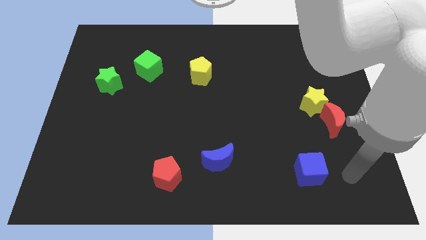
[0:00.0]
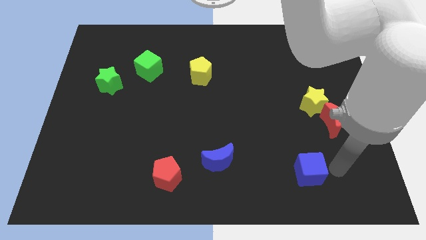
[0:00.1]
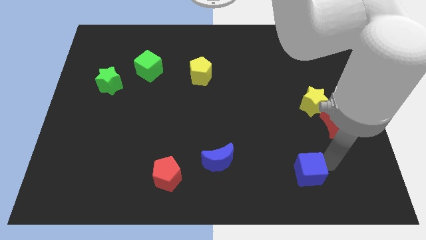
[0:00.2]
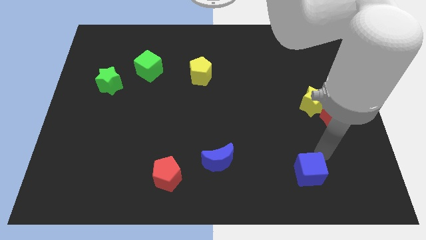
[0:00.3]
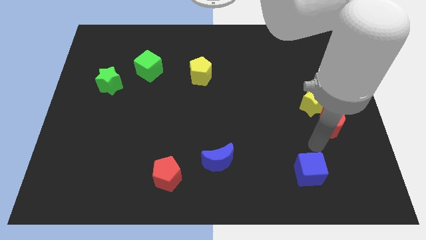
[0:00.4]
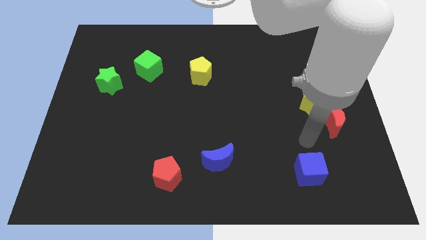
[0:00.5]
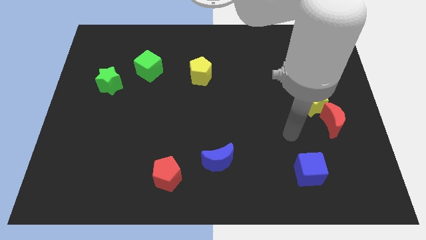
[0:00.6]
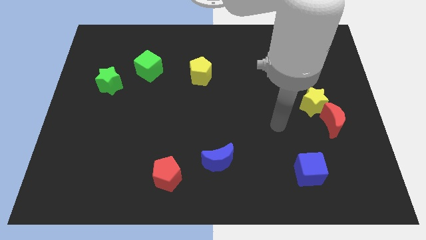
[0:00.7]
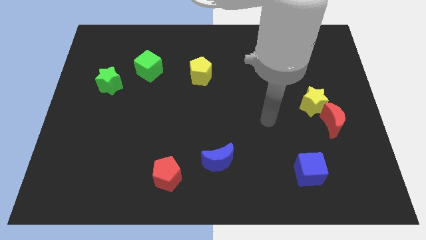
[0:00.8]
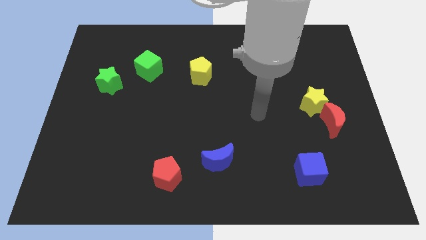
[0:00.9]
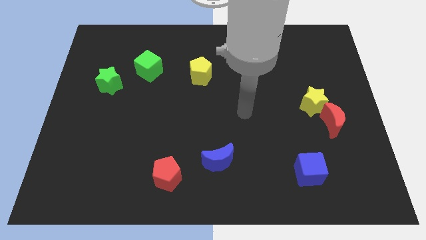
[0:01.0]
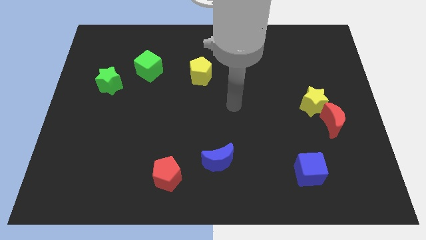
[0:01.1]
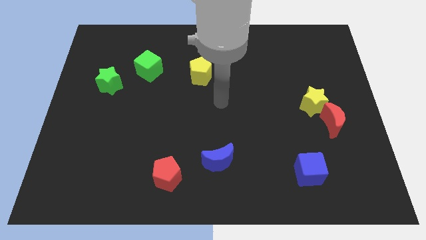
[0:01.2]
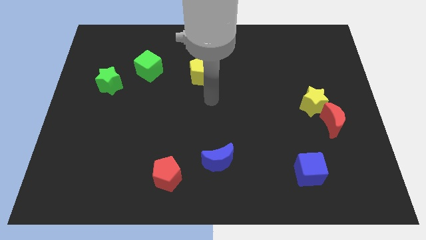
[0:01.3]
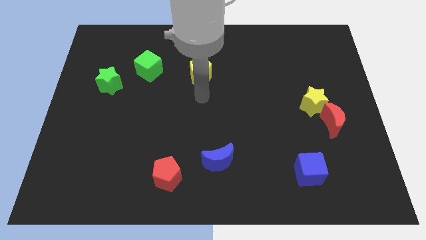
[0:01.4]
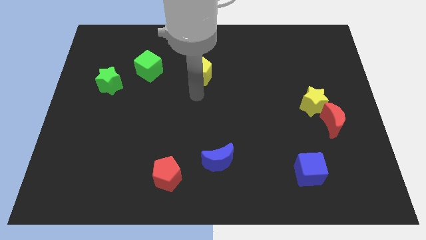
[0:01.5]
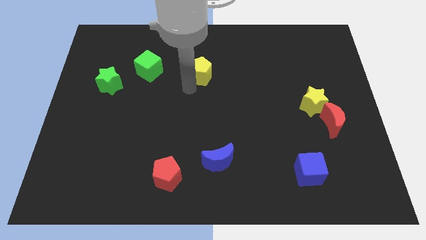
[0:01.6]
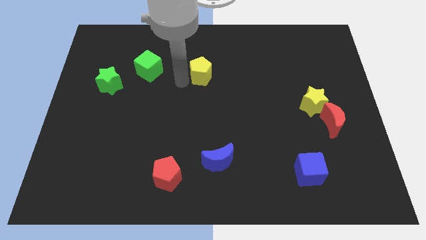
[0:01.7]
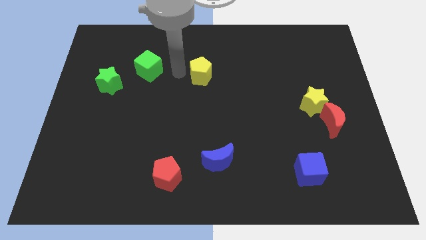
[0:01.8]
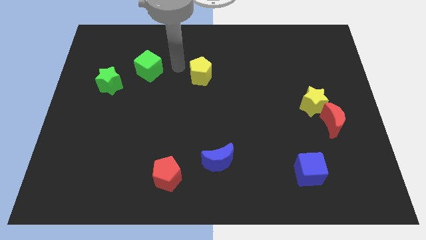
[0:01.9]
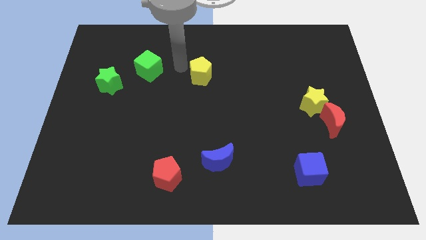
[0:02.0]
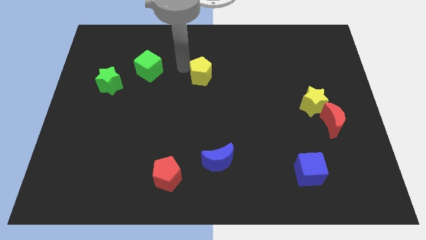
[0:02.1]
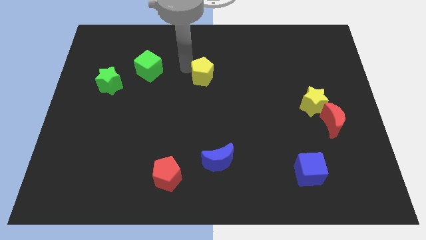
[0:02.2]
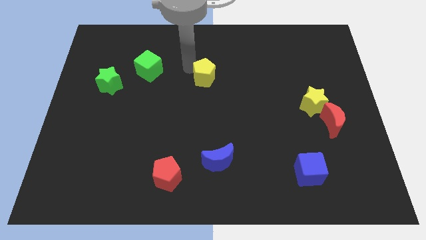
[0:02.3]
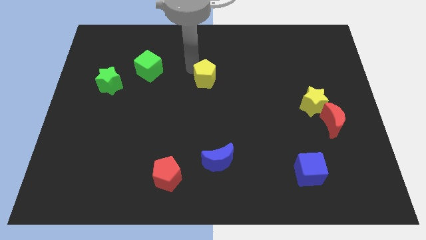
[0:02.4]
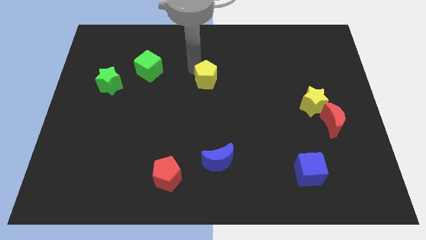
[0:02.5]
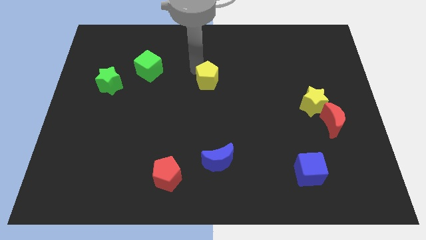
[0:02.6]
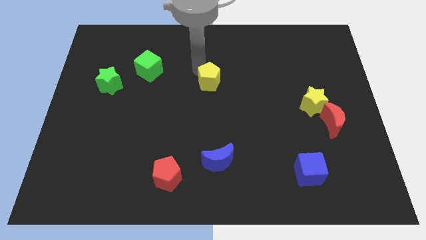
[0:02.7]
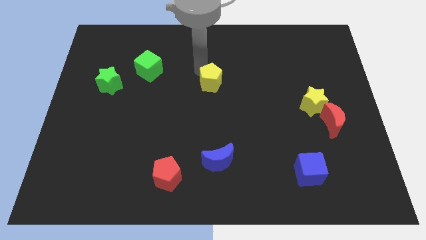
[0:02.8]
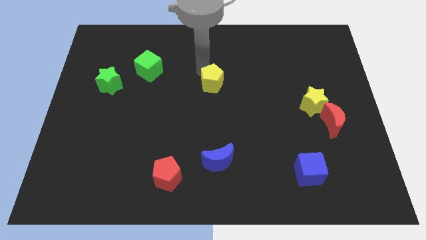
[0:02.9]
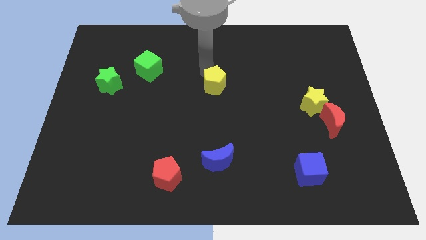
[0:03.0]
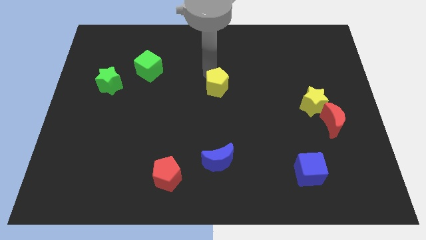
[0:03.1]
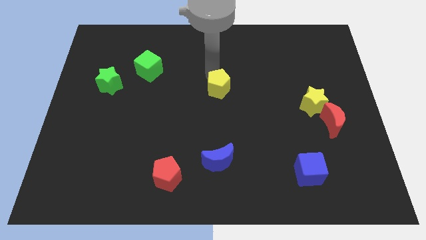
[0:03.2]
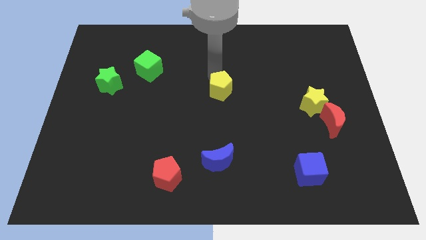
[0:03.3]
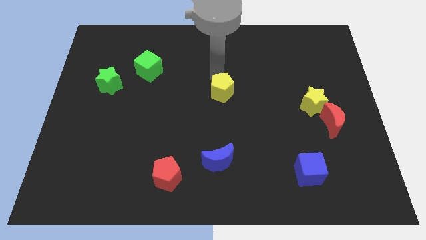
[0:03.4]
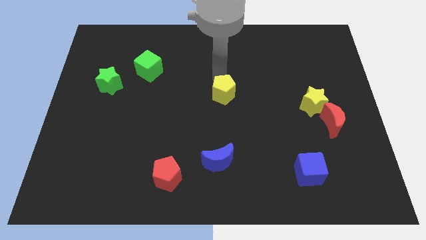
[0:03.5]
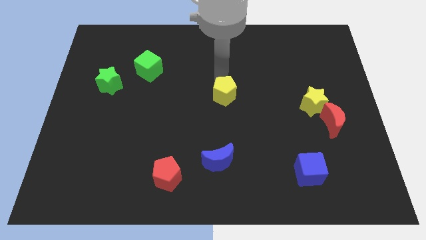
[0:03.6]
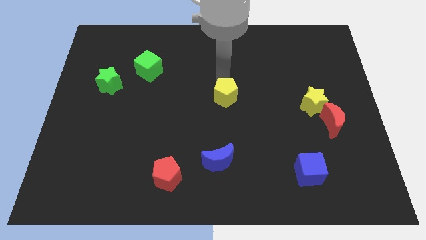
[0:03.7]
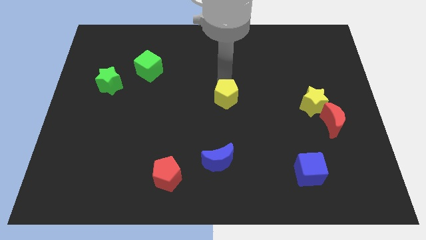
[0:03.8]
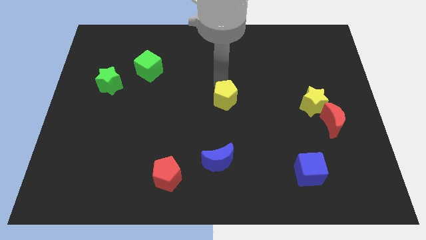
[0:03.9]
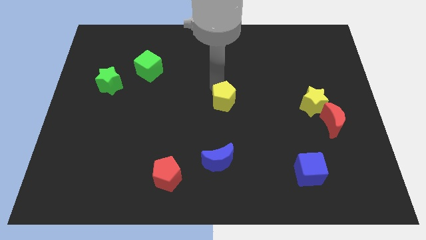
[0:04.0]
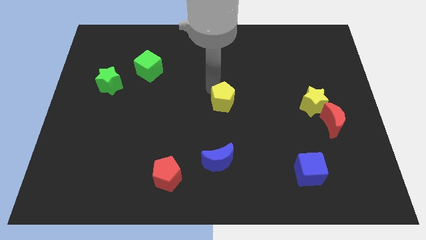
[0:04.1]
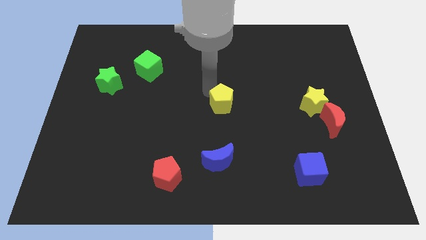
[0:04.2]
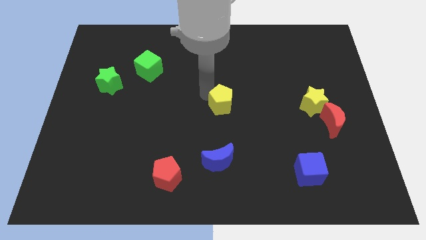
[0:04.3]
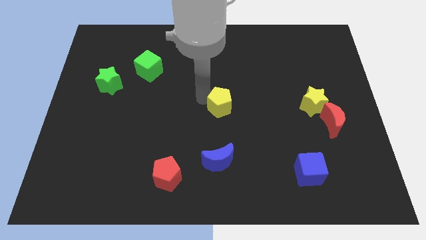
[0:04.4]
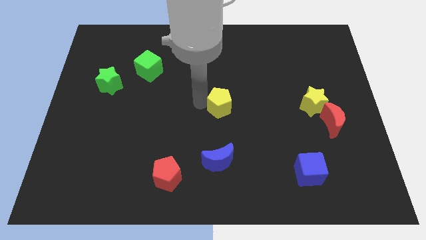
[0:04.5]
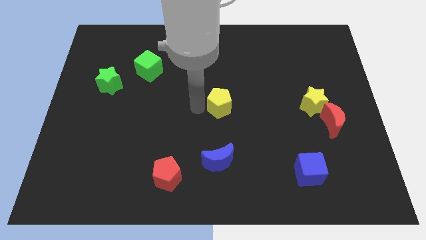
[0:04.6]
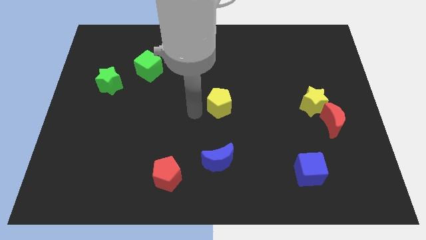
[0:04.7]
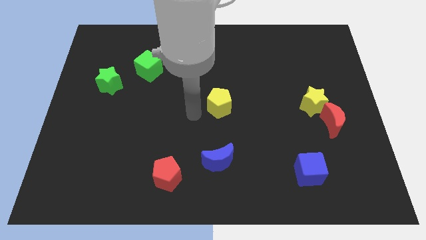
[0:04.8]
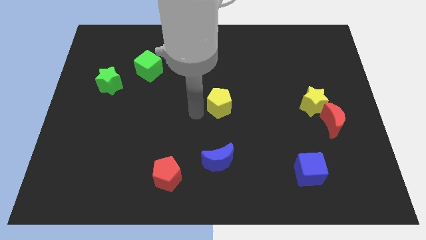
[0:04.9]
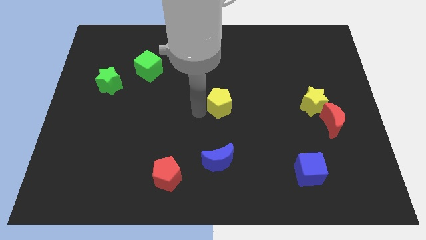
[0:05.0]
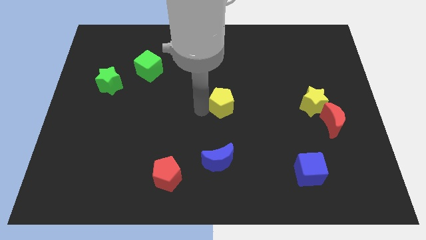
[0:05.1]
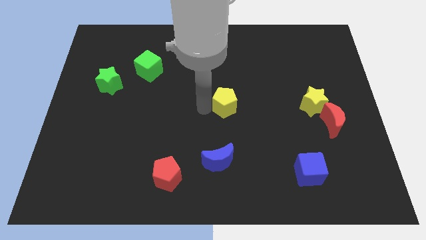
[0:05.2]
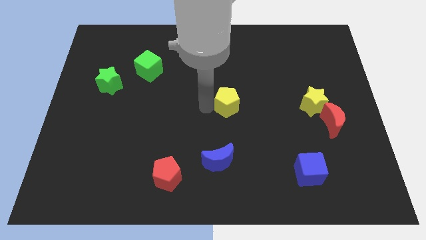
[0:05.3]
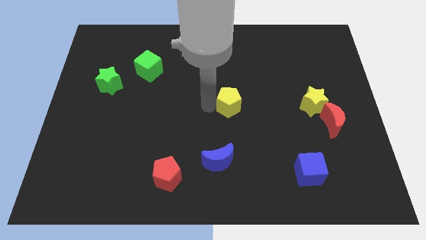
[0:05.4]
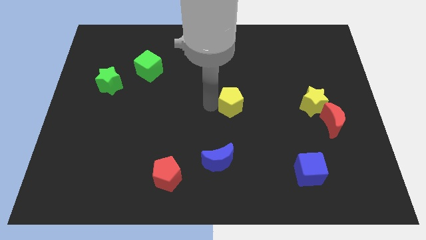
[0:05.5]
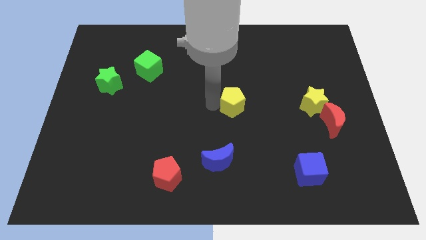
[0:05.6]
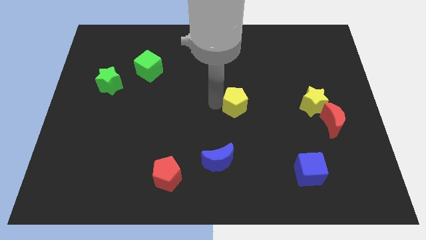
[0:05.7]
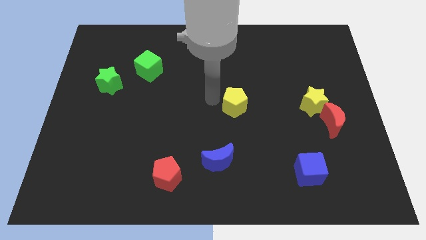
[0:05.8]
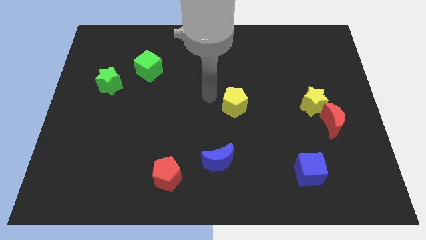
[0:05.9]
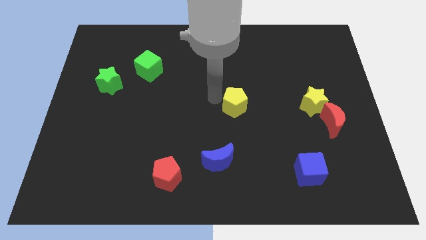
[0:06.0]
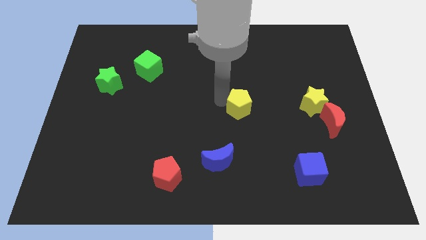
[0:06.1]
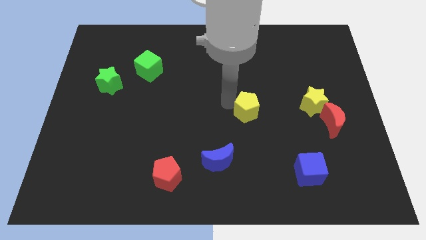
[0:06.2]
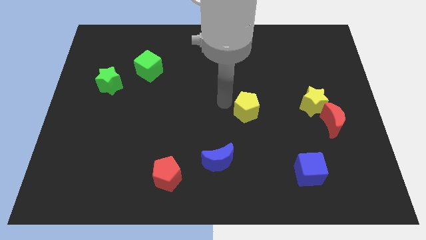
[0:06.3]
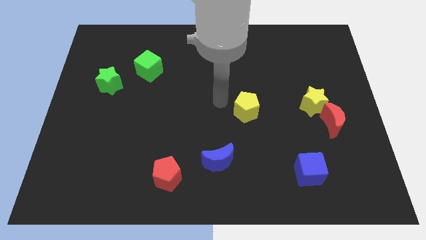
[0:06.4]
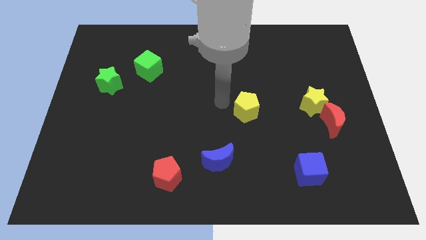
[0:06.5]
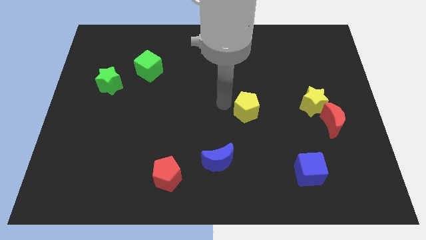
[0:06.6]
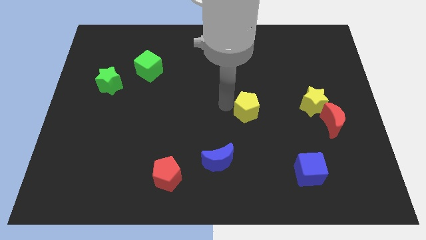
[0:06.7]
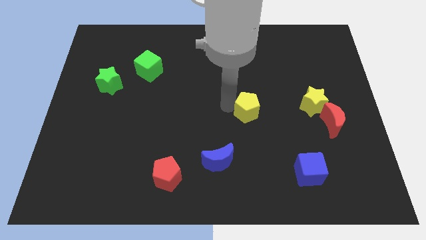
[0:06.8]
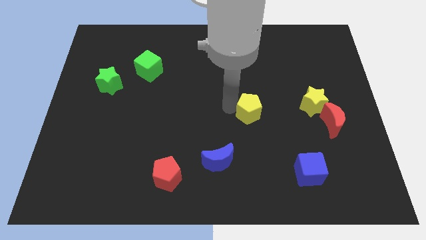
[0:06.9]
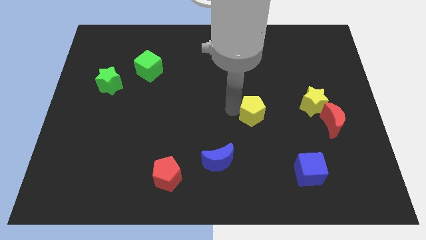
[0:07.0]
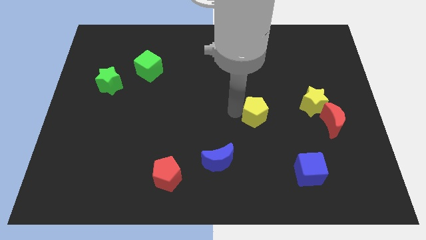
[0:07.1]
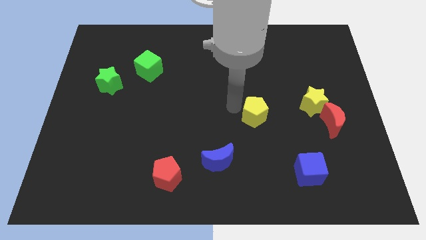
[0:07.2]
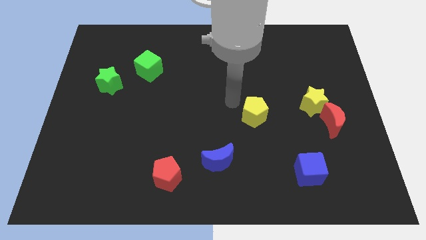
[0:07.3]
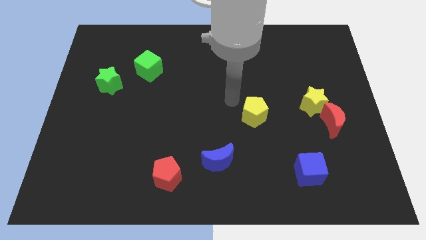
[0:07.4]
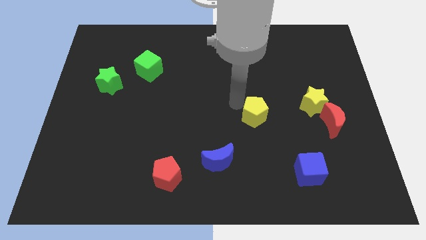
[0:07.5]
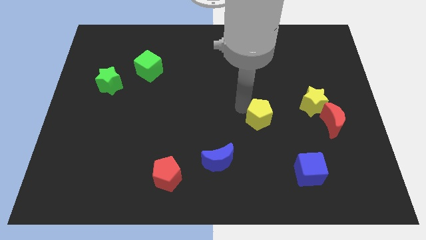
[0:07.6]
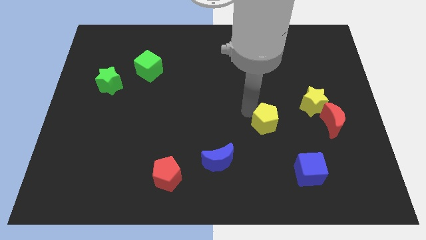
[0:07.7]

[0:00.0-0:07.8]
push the yellow pentagon downwards and to the right

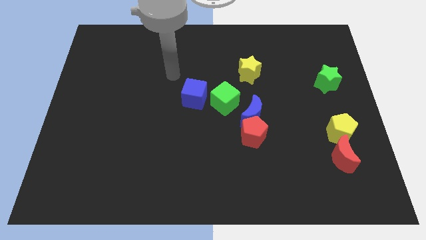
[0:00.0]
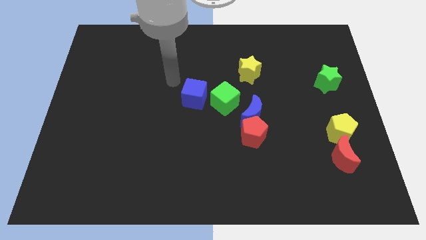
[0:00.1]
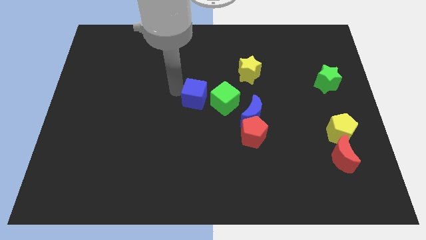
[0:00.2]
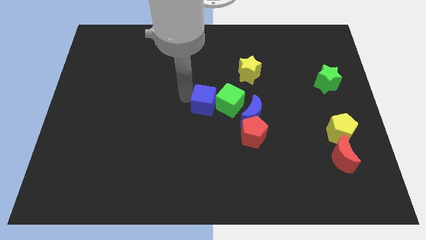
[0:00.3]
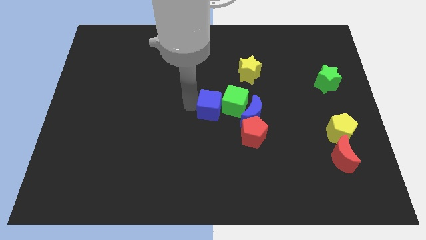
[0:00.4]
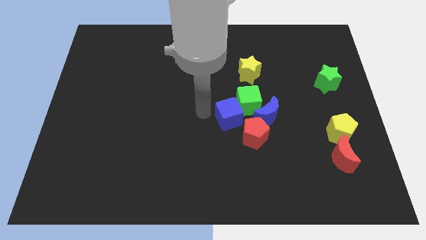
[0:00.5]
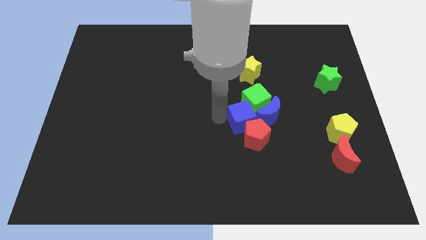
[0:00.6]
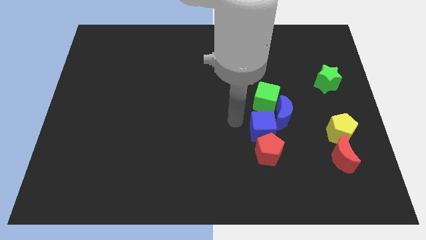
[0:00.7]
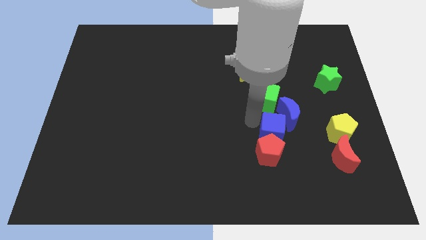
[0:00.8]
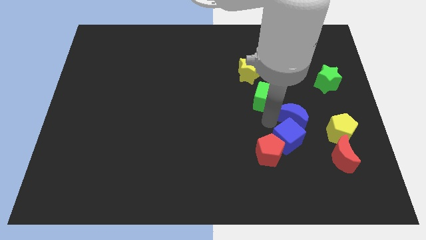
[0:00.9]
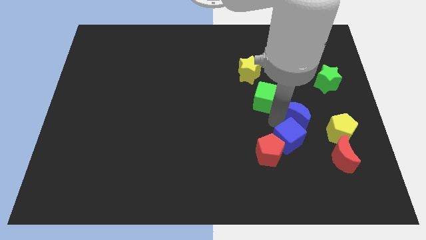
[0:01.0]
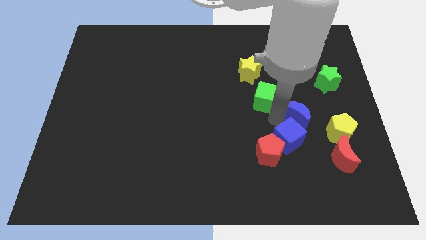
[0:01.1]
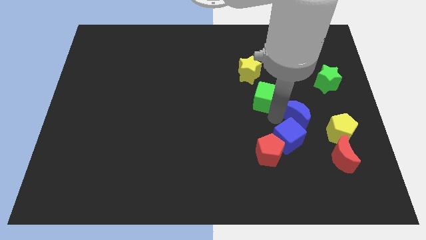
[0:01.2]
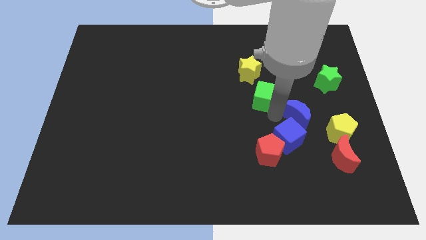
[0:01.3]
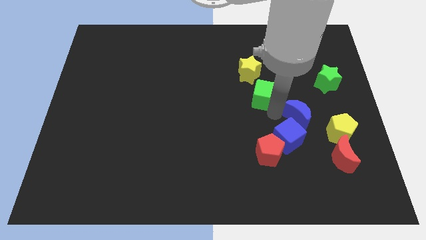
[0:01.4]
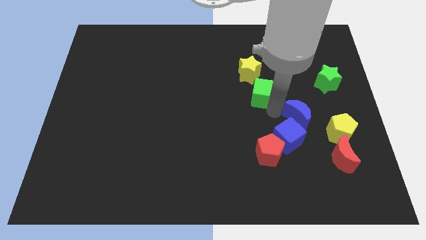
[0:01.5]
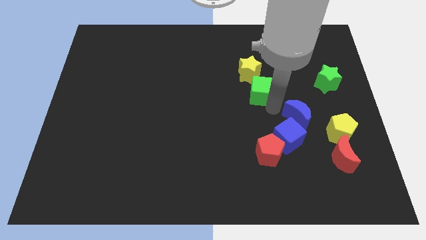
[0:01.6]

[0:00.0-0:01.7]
move the green cube somewhat up and right
